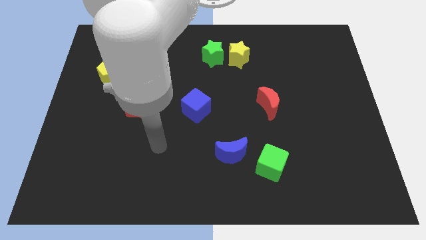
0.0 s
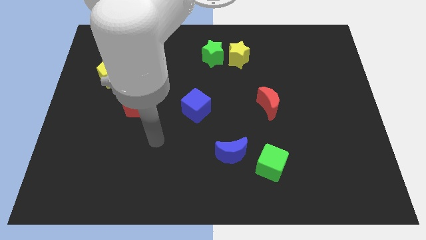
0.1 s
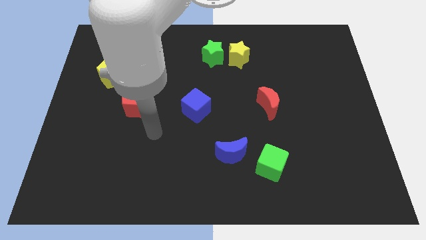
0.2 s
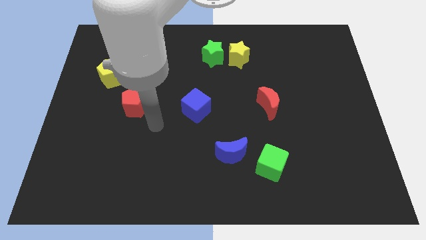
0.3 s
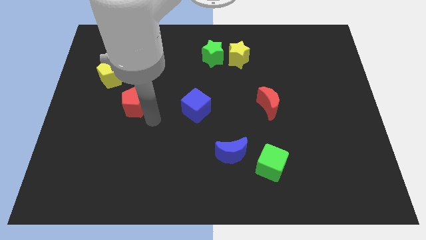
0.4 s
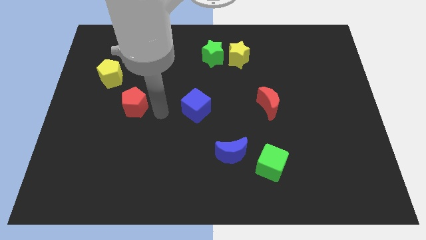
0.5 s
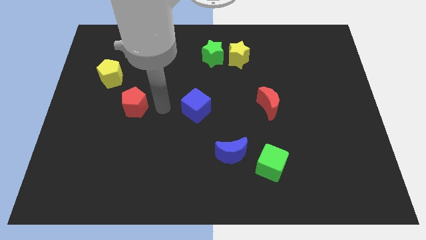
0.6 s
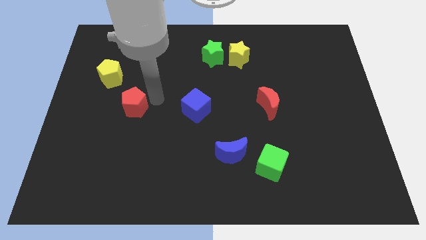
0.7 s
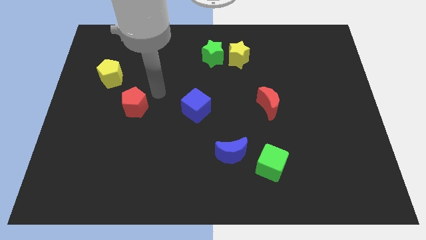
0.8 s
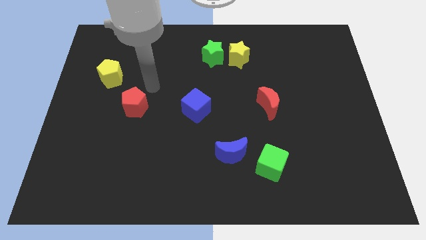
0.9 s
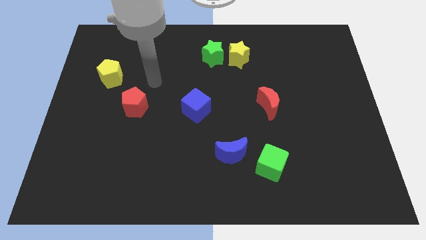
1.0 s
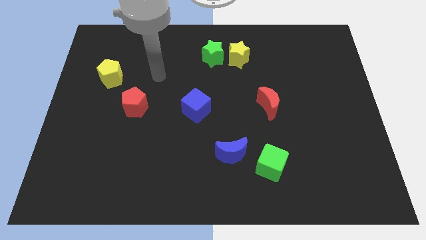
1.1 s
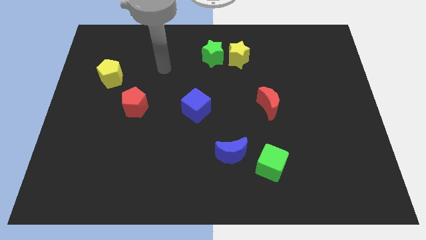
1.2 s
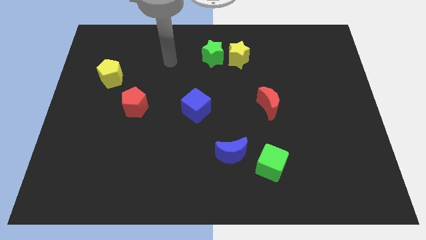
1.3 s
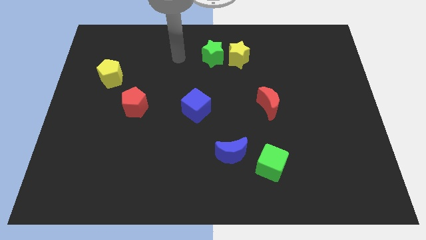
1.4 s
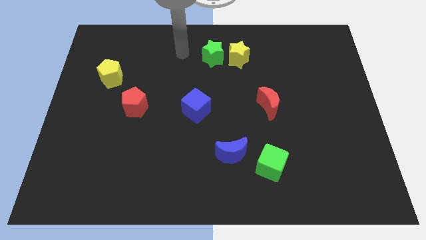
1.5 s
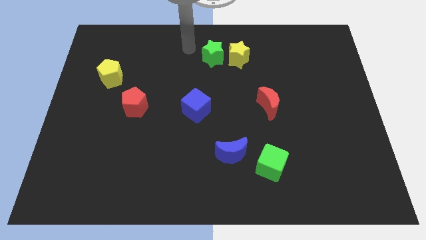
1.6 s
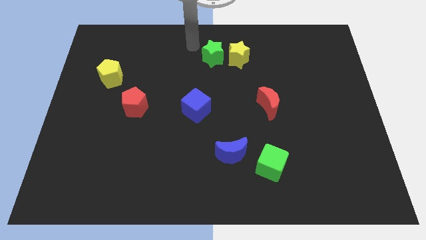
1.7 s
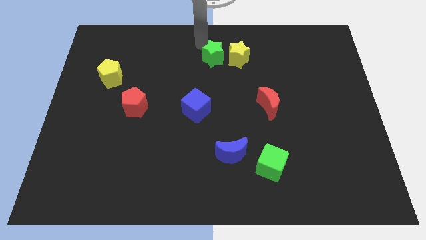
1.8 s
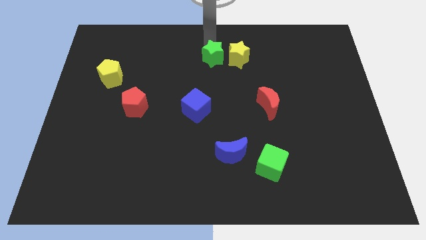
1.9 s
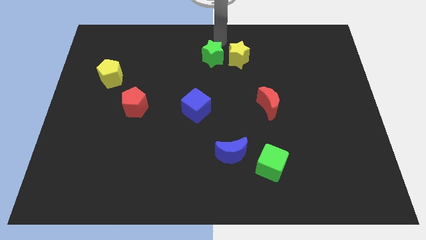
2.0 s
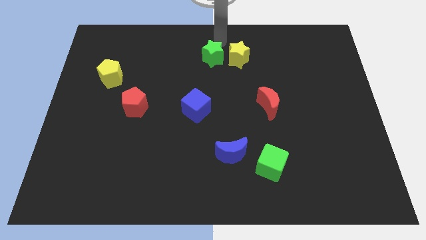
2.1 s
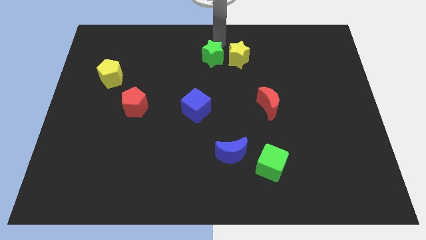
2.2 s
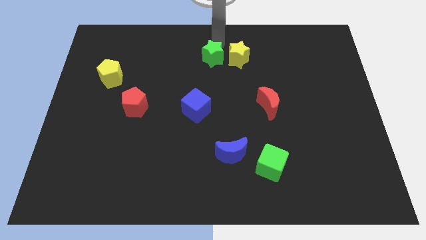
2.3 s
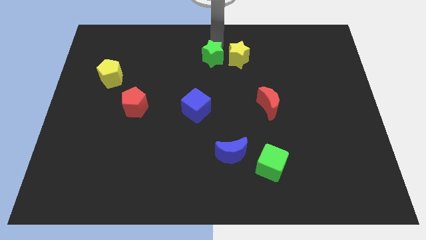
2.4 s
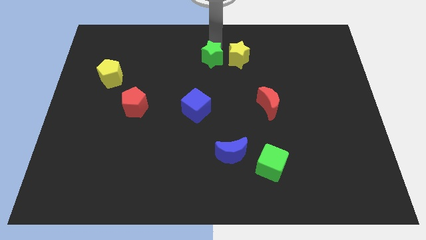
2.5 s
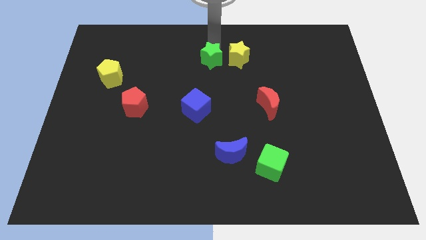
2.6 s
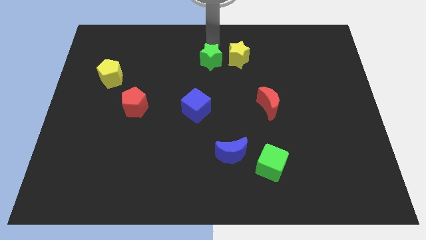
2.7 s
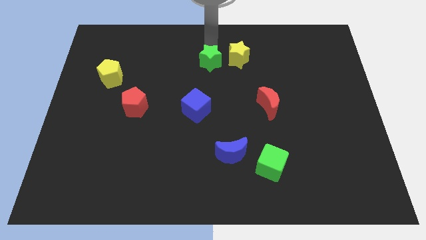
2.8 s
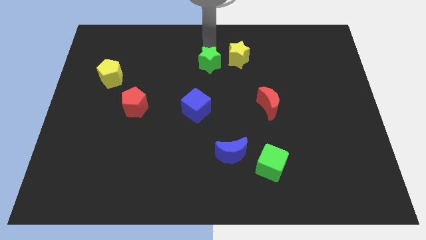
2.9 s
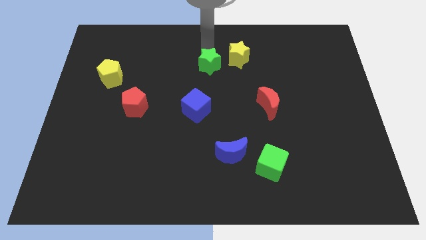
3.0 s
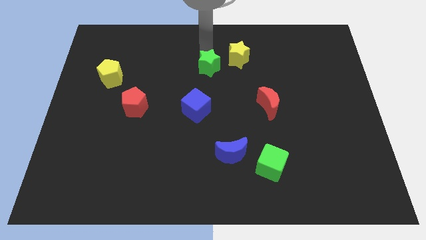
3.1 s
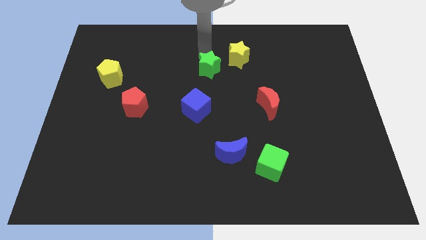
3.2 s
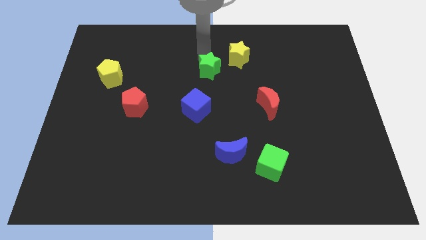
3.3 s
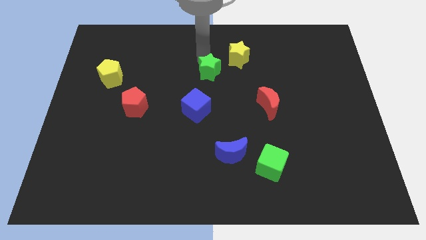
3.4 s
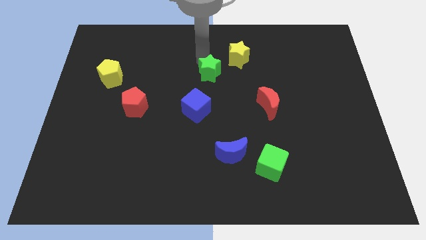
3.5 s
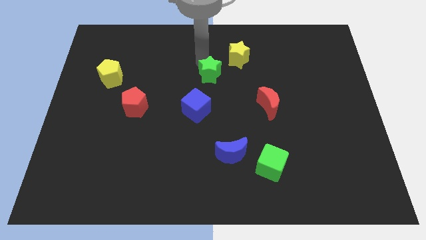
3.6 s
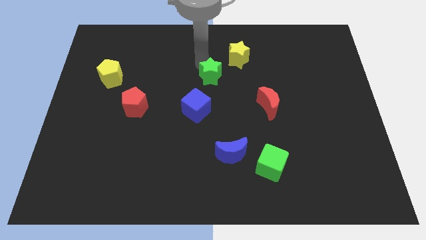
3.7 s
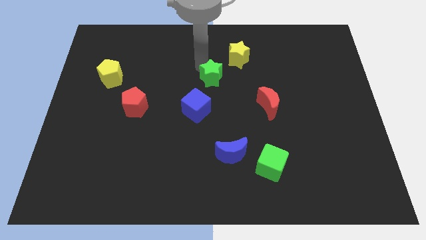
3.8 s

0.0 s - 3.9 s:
push the green star somewhat downwards

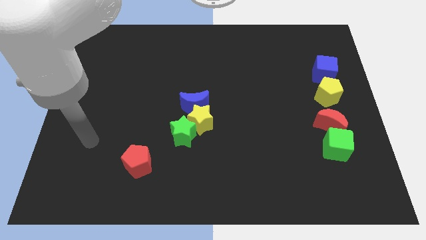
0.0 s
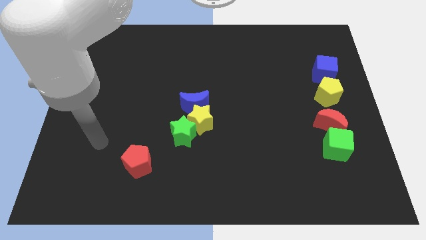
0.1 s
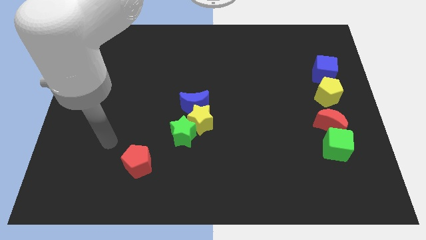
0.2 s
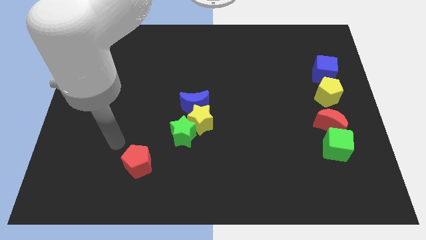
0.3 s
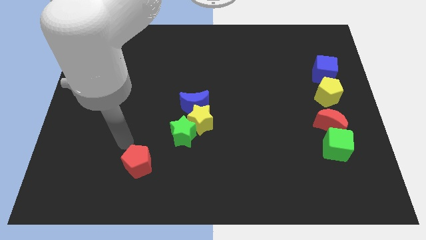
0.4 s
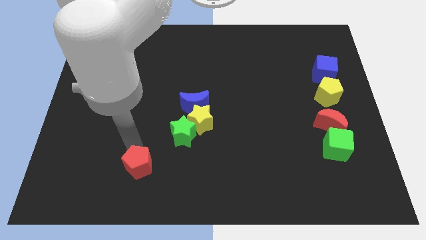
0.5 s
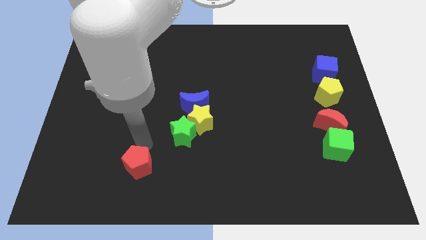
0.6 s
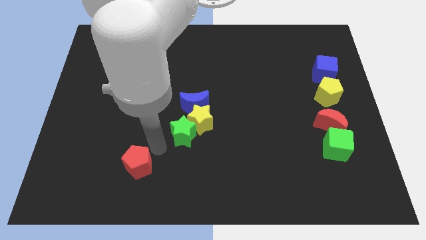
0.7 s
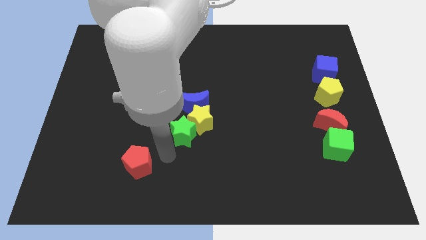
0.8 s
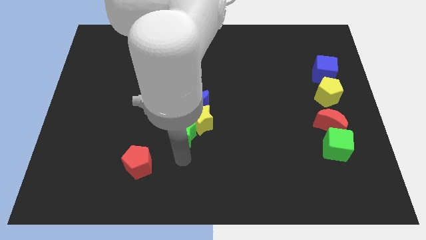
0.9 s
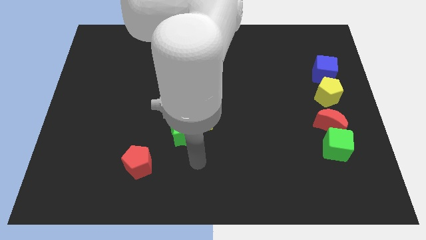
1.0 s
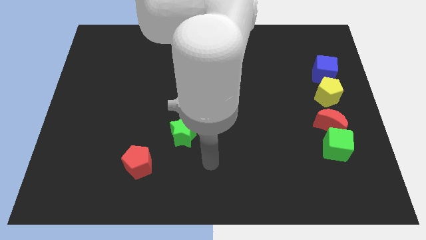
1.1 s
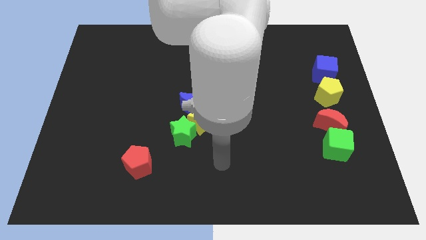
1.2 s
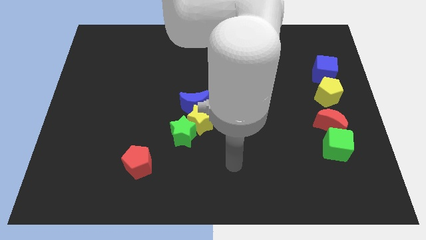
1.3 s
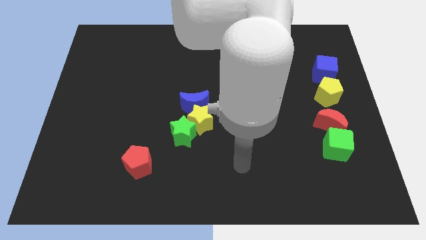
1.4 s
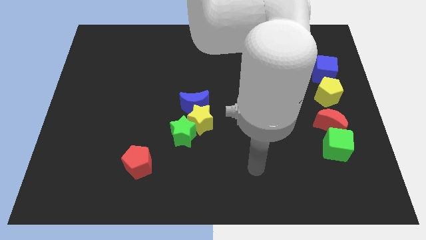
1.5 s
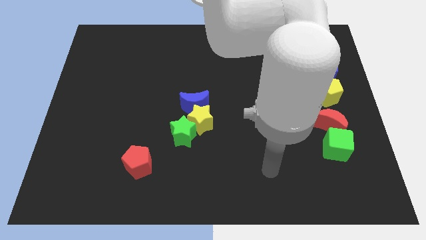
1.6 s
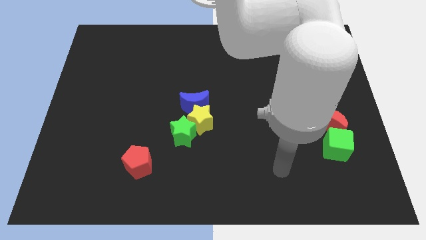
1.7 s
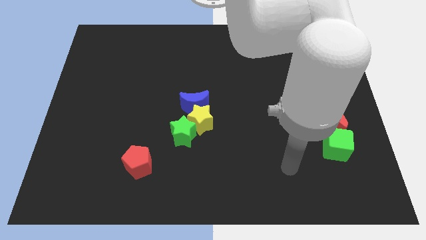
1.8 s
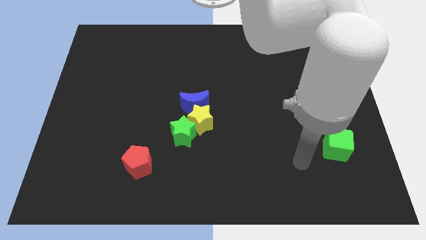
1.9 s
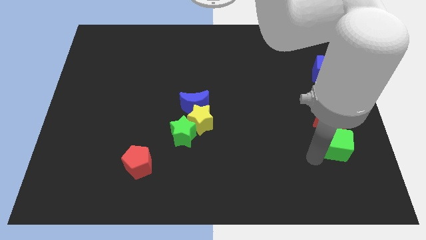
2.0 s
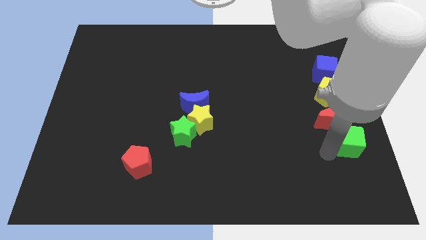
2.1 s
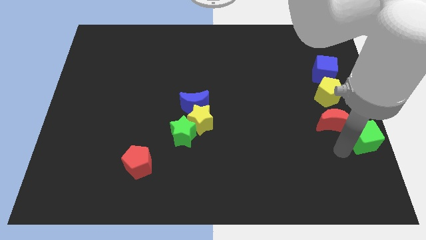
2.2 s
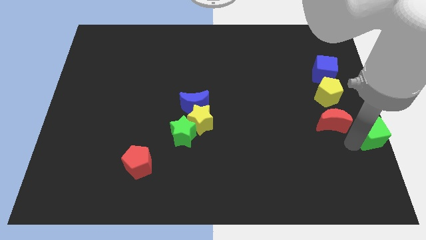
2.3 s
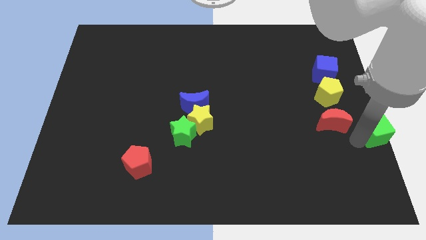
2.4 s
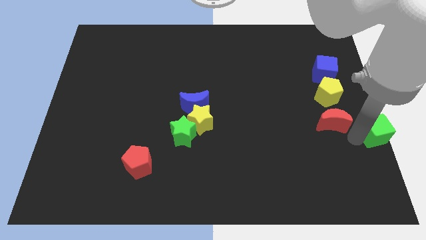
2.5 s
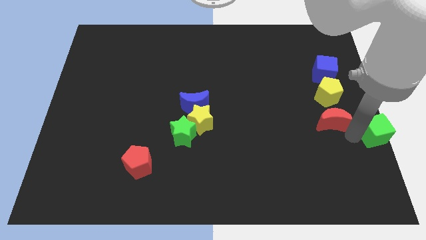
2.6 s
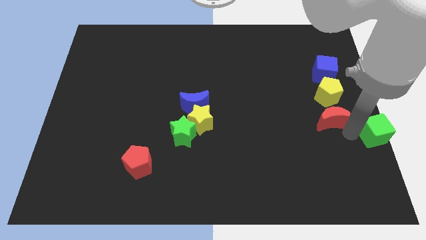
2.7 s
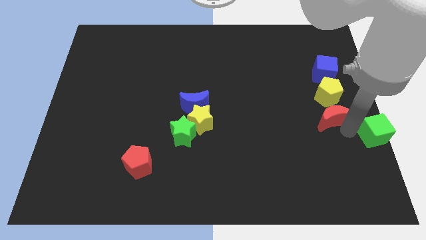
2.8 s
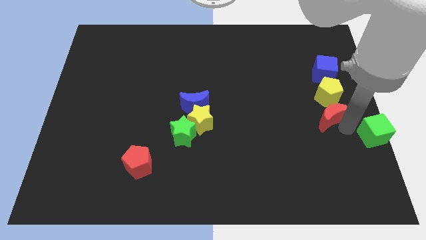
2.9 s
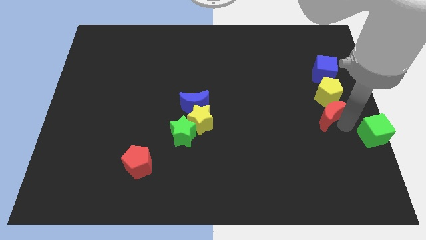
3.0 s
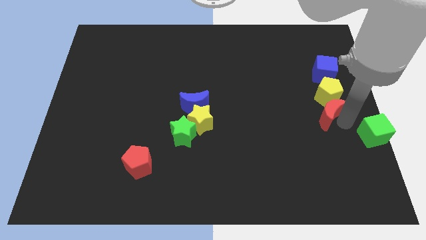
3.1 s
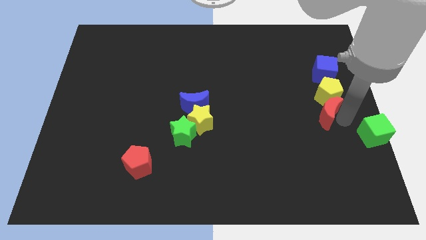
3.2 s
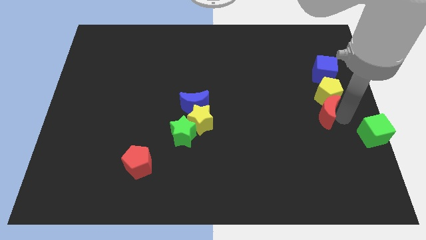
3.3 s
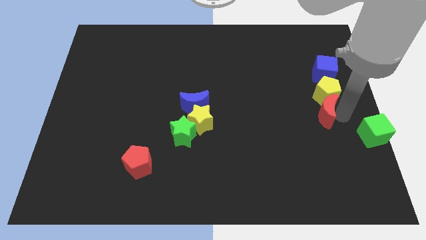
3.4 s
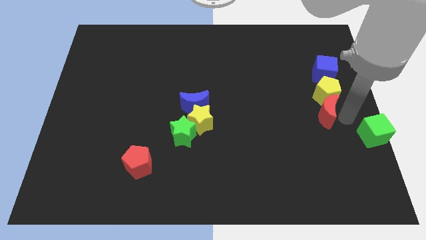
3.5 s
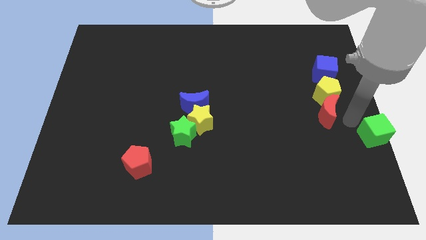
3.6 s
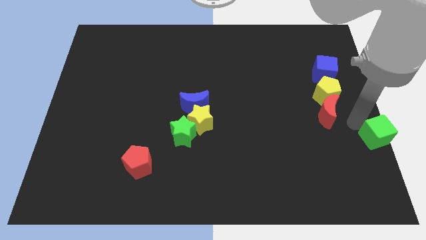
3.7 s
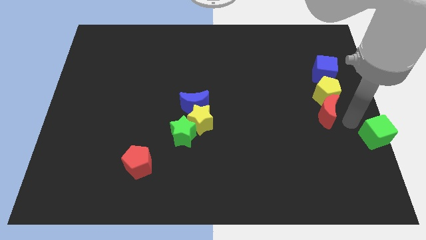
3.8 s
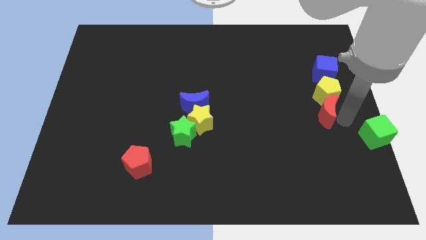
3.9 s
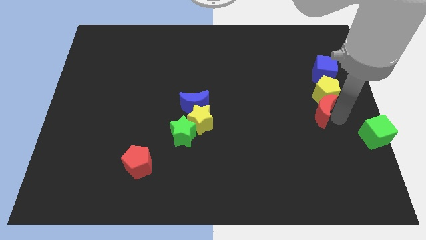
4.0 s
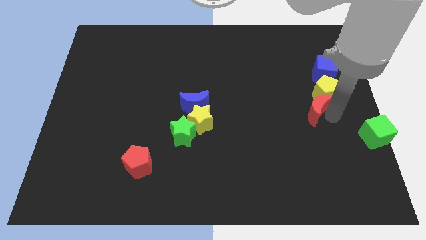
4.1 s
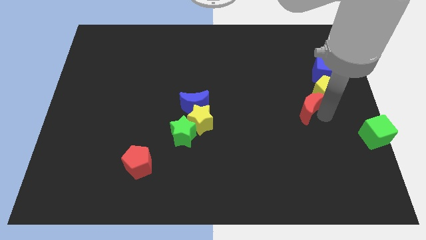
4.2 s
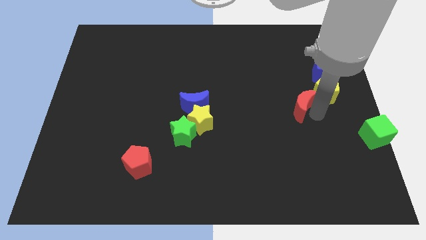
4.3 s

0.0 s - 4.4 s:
slightly slide the red moon upwards and left diagonally
